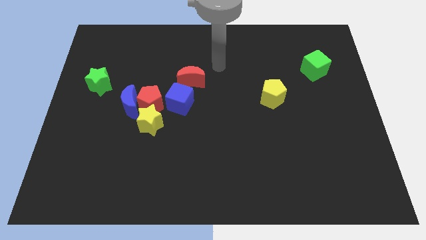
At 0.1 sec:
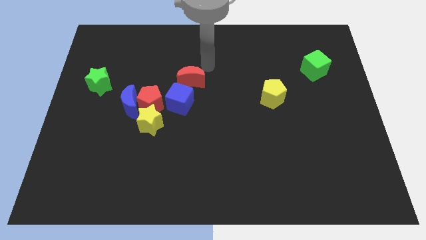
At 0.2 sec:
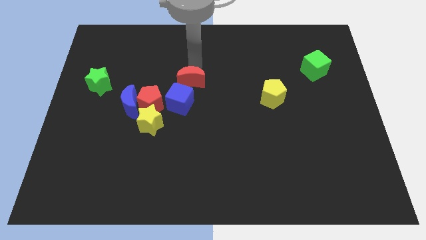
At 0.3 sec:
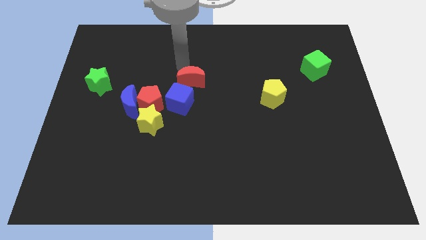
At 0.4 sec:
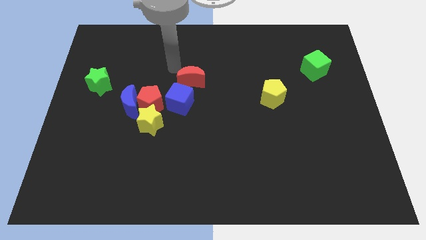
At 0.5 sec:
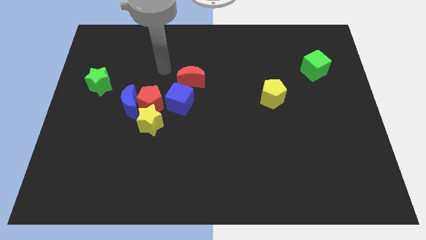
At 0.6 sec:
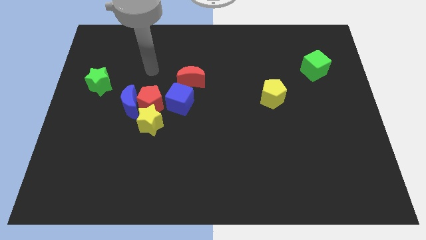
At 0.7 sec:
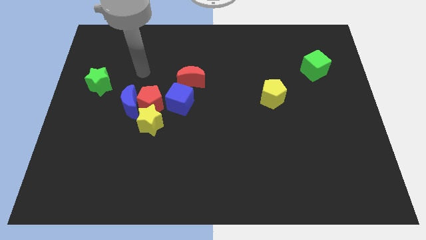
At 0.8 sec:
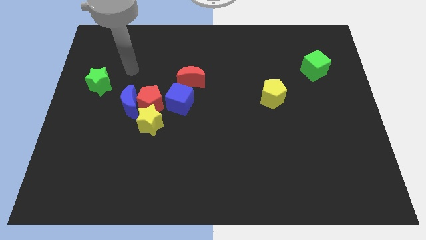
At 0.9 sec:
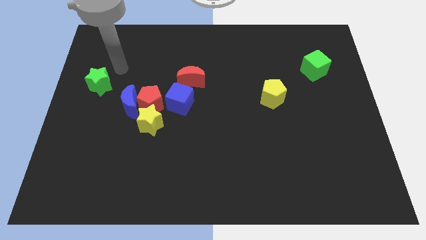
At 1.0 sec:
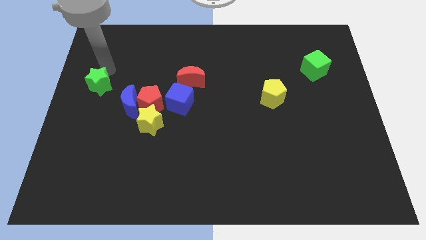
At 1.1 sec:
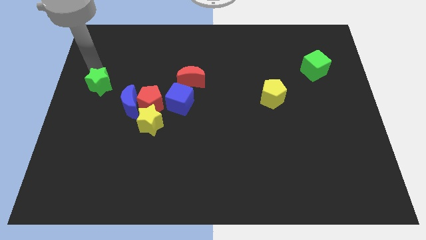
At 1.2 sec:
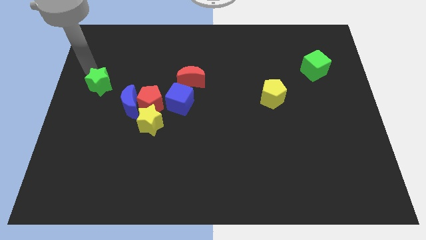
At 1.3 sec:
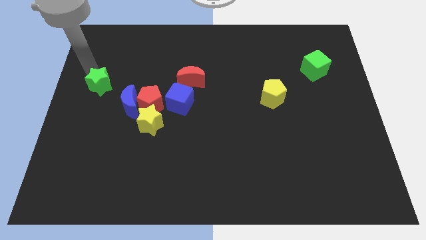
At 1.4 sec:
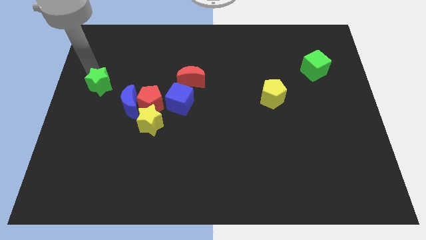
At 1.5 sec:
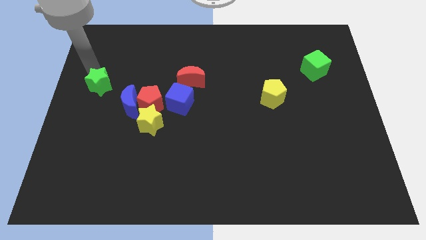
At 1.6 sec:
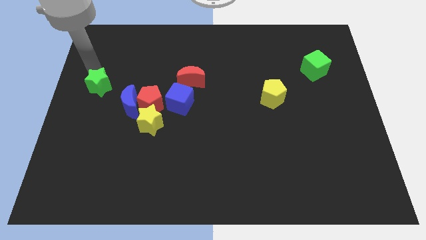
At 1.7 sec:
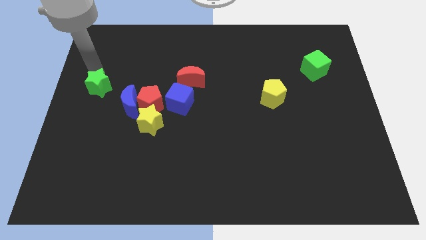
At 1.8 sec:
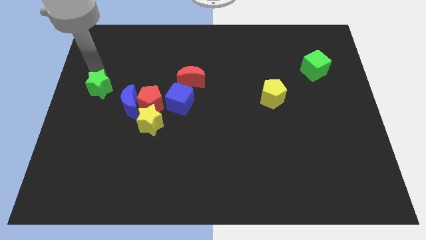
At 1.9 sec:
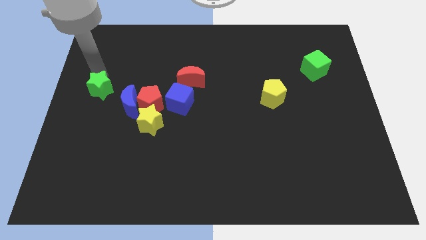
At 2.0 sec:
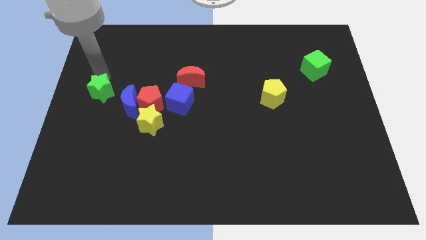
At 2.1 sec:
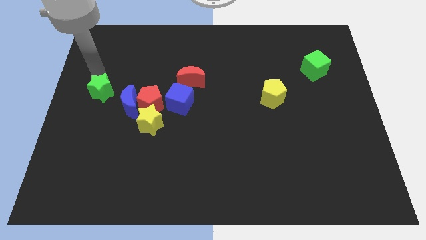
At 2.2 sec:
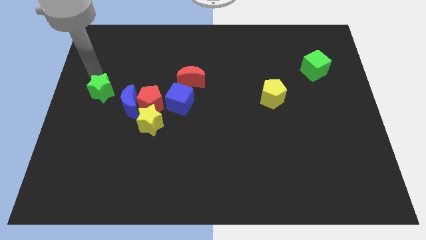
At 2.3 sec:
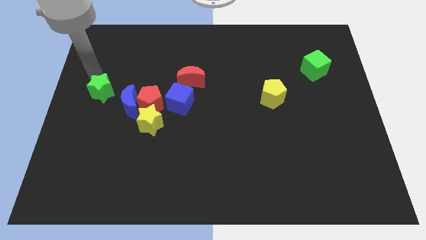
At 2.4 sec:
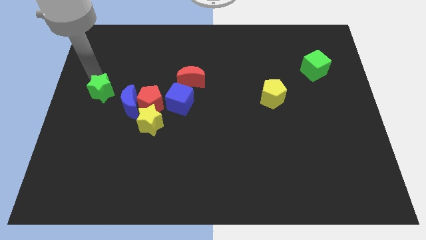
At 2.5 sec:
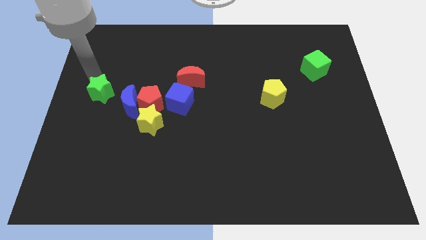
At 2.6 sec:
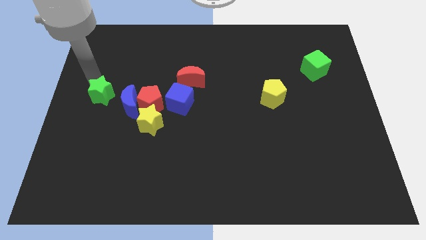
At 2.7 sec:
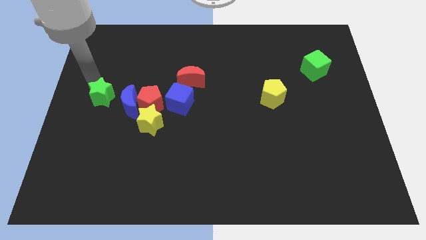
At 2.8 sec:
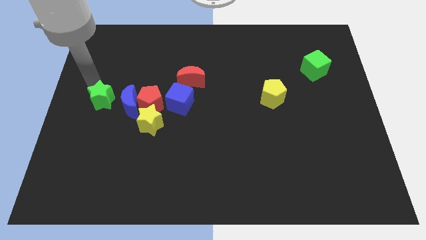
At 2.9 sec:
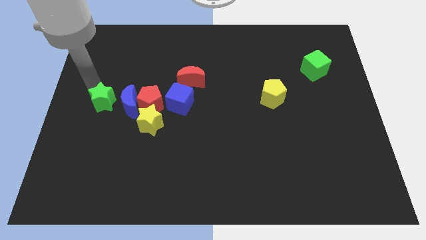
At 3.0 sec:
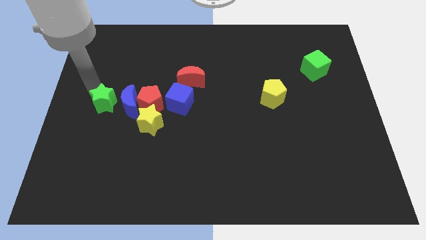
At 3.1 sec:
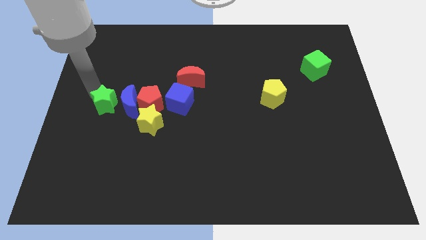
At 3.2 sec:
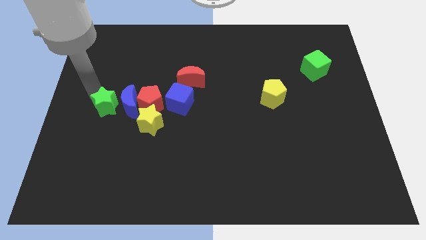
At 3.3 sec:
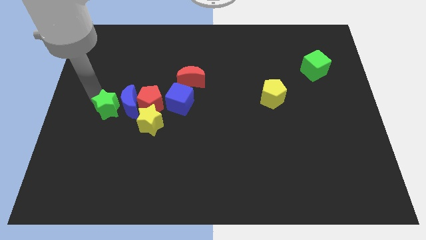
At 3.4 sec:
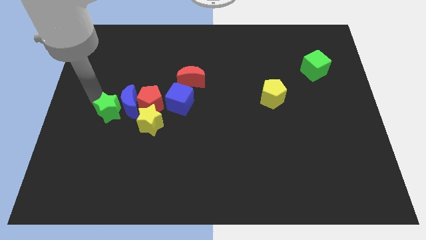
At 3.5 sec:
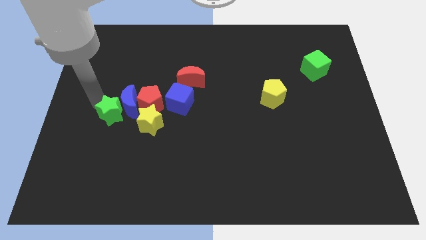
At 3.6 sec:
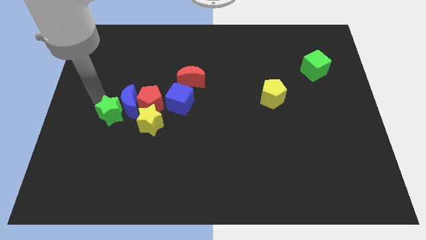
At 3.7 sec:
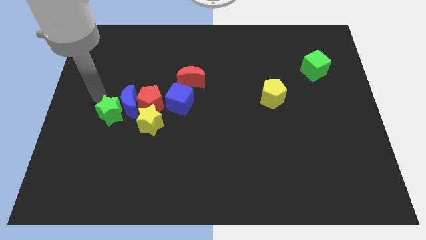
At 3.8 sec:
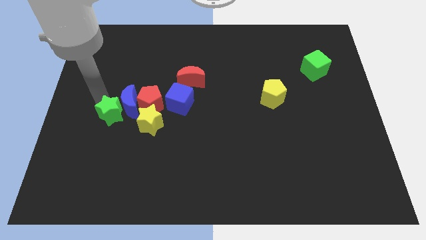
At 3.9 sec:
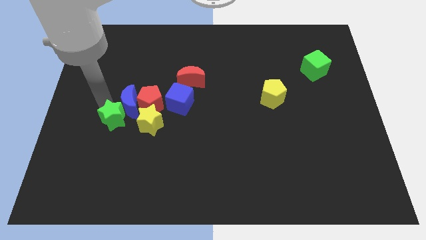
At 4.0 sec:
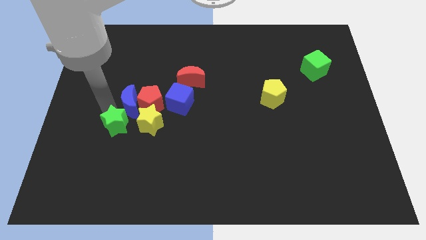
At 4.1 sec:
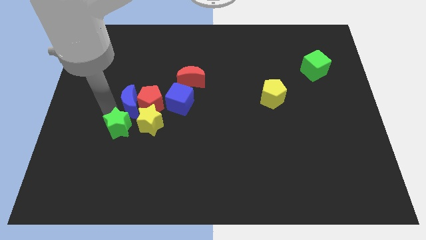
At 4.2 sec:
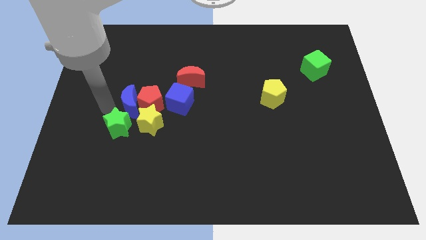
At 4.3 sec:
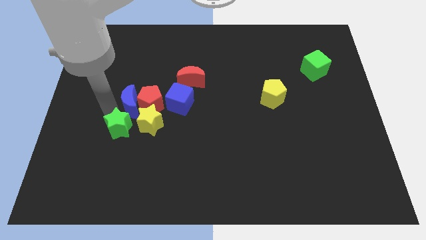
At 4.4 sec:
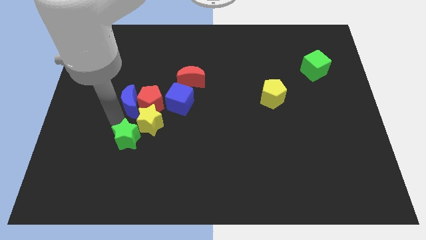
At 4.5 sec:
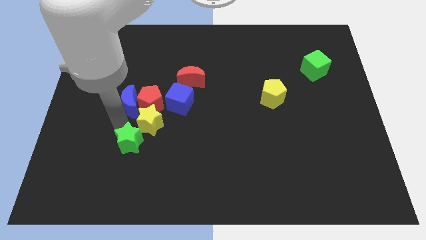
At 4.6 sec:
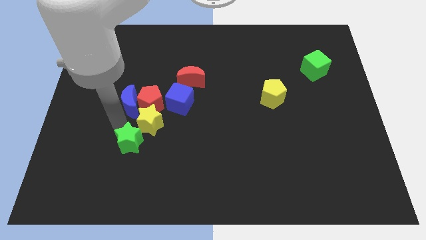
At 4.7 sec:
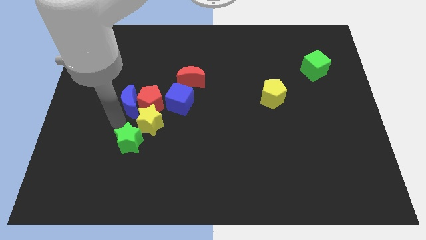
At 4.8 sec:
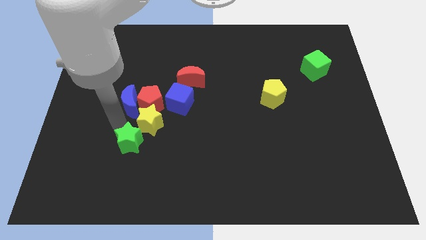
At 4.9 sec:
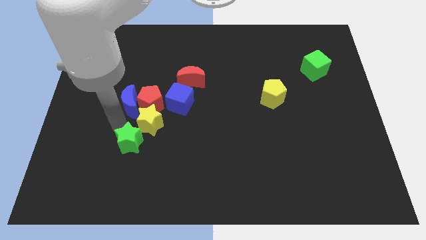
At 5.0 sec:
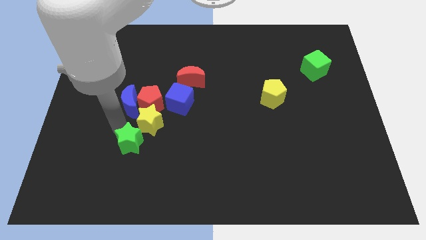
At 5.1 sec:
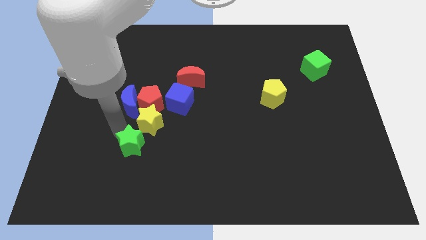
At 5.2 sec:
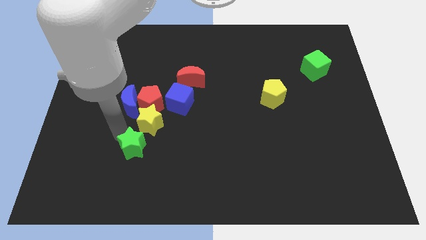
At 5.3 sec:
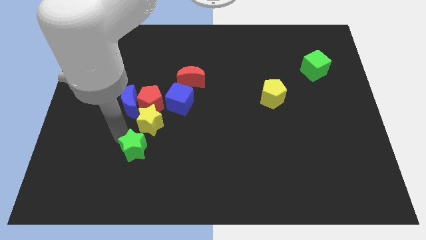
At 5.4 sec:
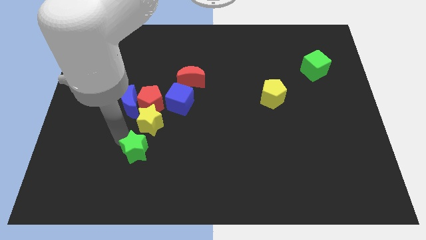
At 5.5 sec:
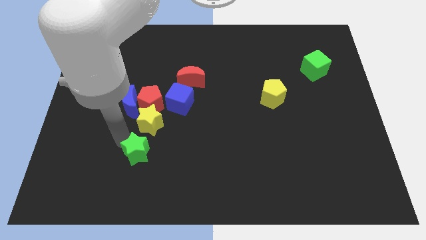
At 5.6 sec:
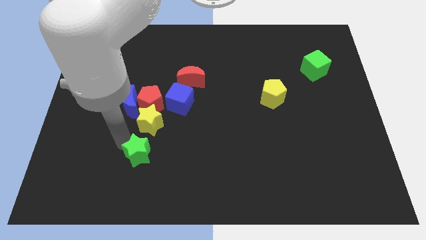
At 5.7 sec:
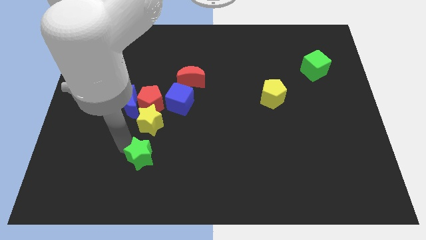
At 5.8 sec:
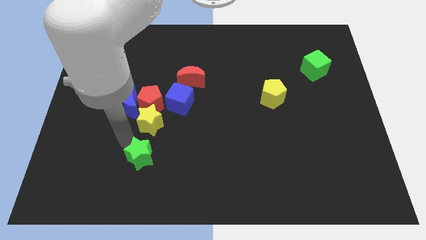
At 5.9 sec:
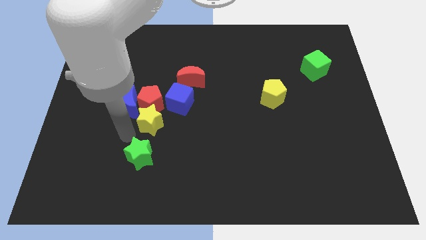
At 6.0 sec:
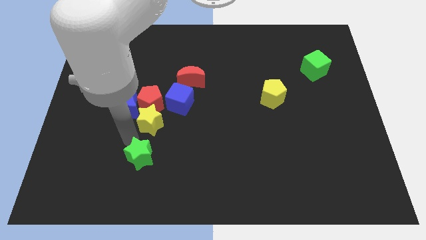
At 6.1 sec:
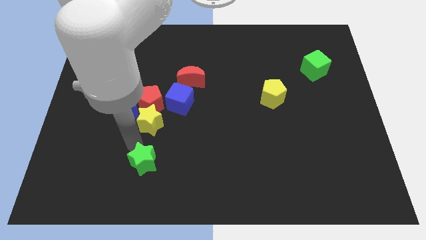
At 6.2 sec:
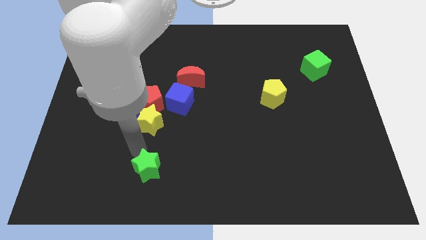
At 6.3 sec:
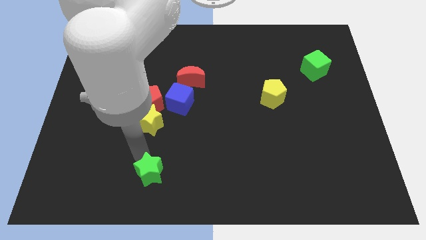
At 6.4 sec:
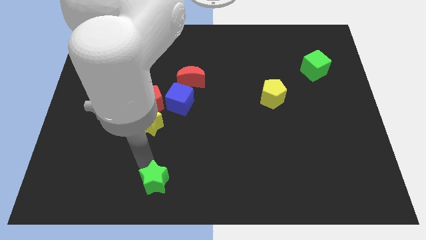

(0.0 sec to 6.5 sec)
push the green star to the bottom side
